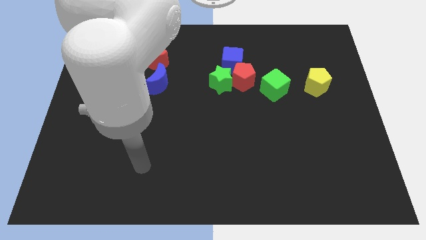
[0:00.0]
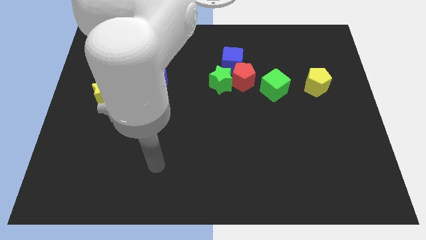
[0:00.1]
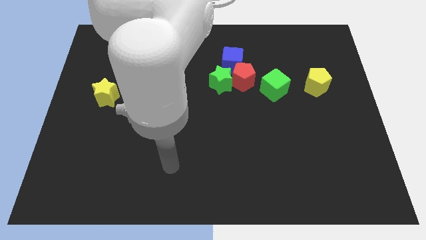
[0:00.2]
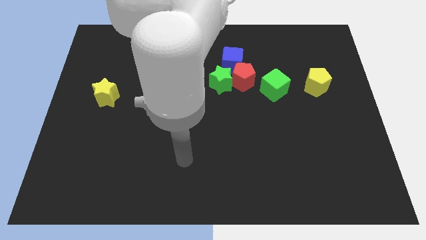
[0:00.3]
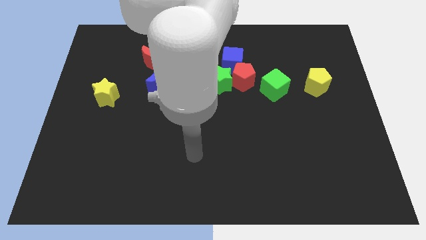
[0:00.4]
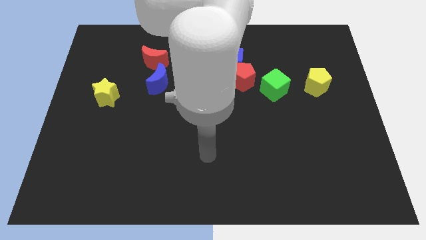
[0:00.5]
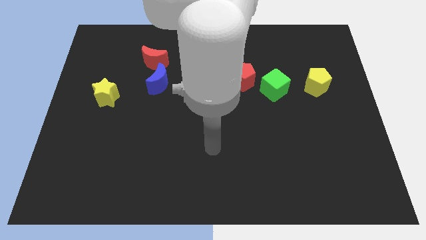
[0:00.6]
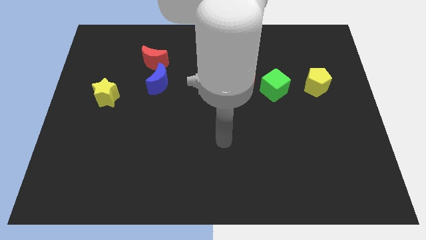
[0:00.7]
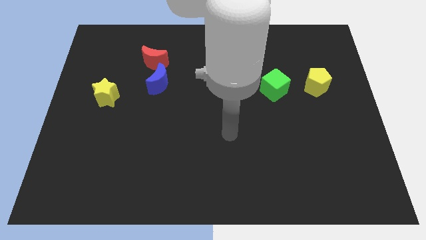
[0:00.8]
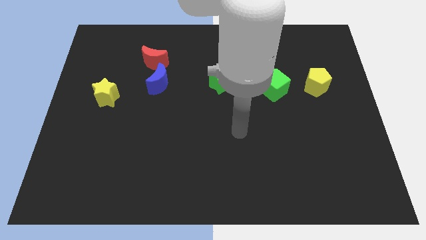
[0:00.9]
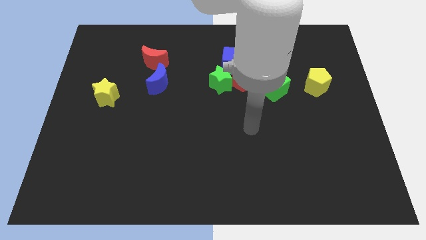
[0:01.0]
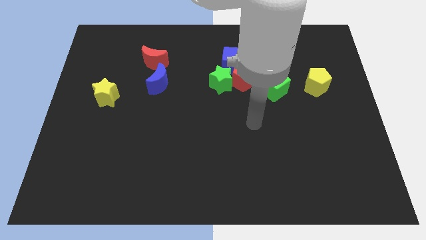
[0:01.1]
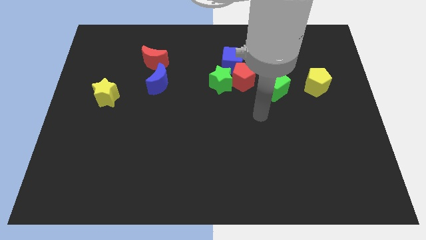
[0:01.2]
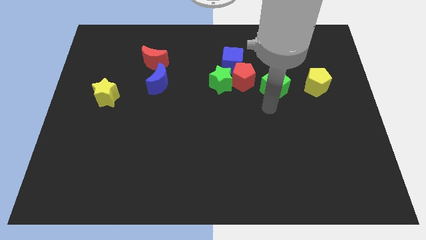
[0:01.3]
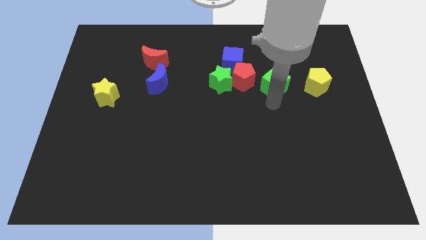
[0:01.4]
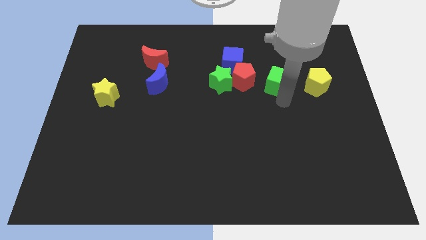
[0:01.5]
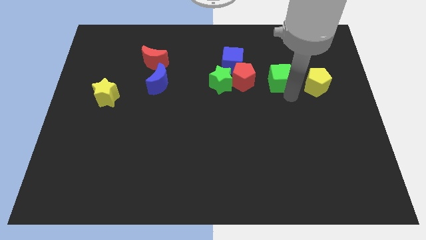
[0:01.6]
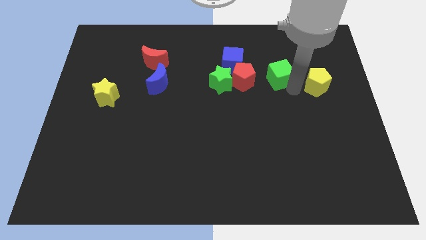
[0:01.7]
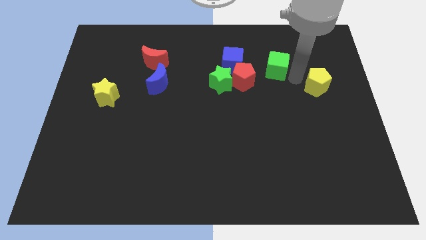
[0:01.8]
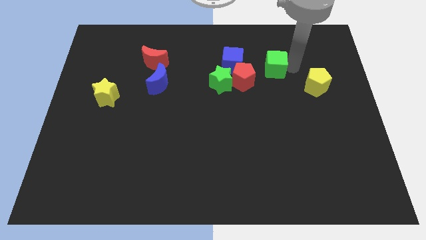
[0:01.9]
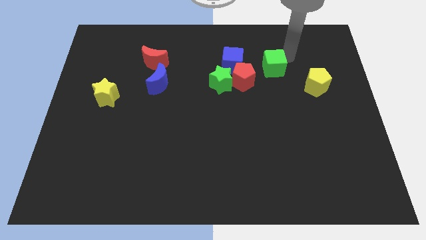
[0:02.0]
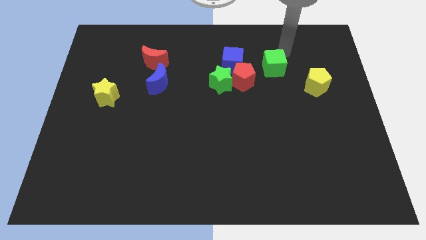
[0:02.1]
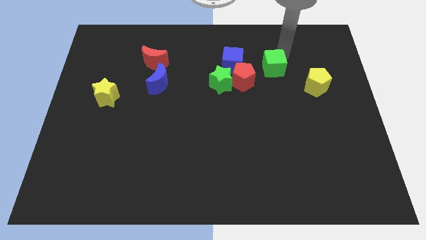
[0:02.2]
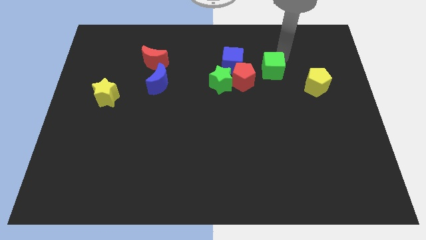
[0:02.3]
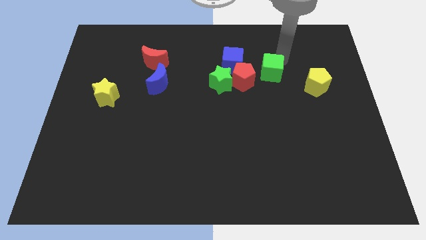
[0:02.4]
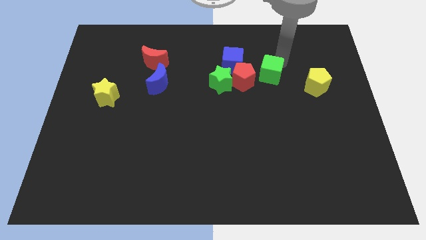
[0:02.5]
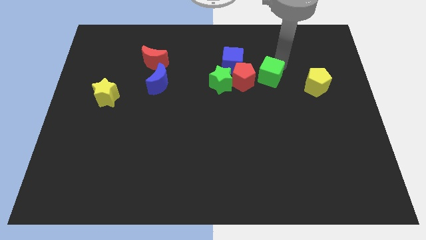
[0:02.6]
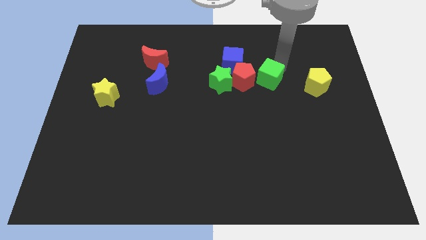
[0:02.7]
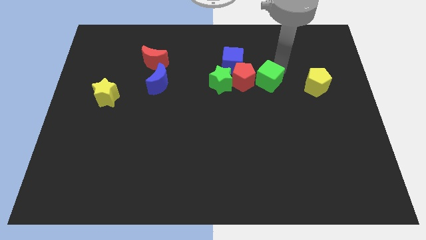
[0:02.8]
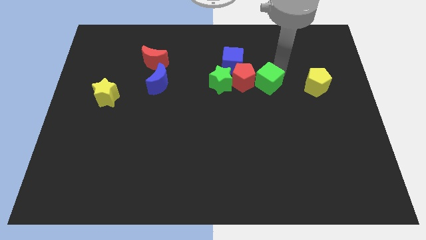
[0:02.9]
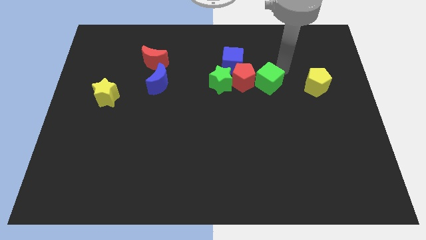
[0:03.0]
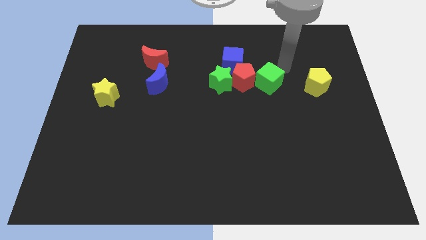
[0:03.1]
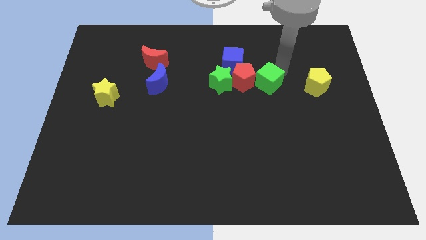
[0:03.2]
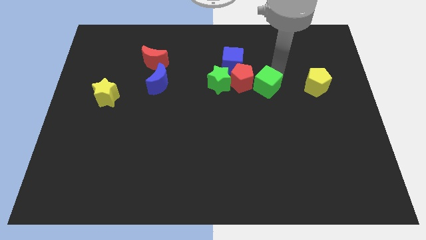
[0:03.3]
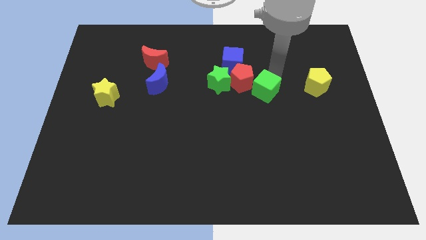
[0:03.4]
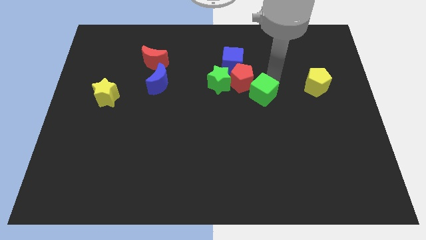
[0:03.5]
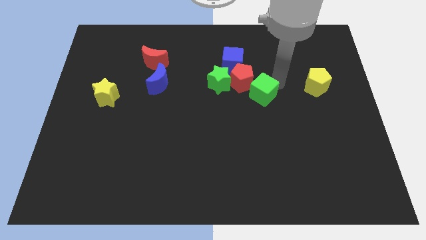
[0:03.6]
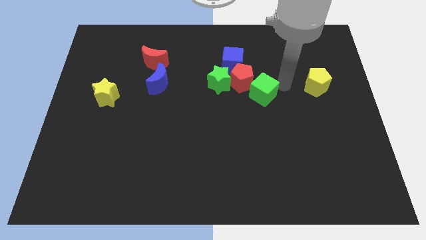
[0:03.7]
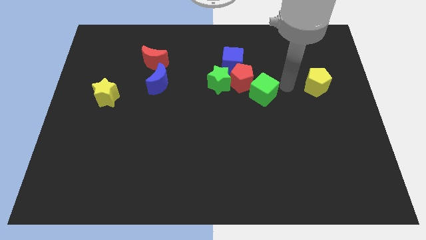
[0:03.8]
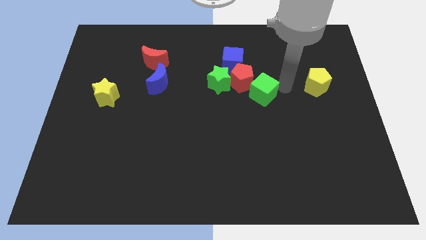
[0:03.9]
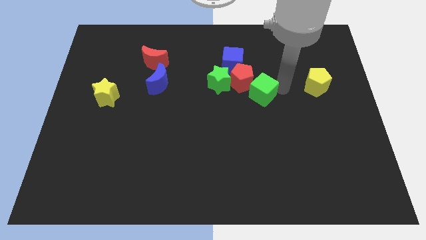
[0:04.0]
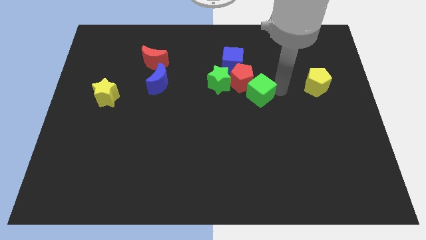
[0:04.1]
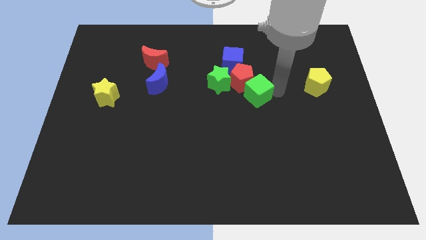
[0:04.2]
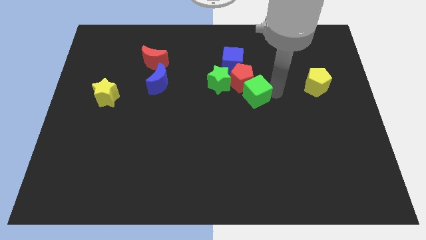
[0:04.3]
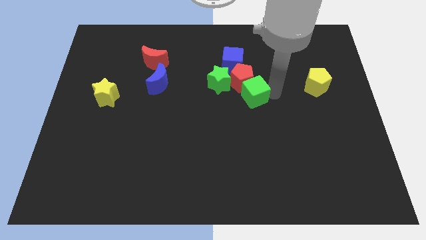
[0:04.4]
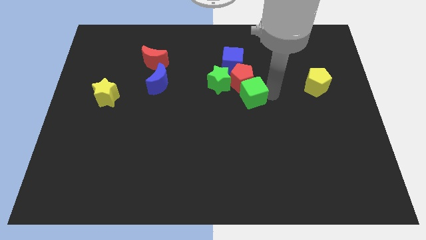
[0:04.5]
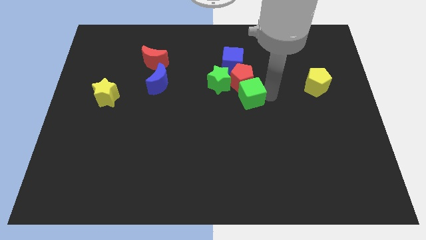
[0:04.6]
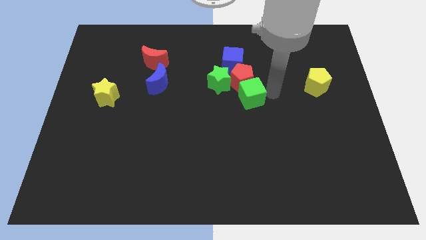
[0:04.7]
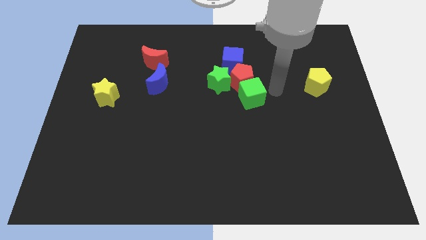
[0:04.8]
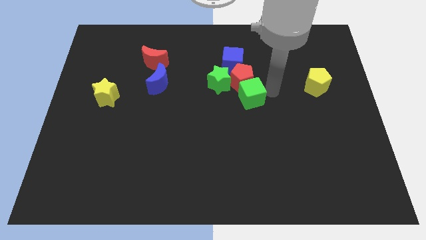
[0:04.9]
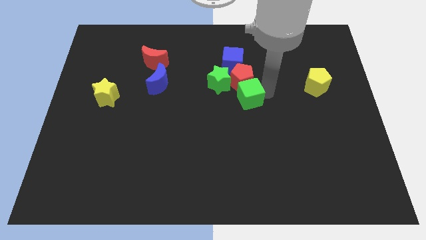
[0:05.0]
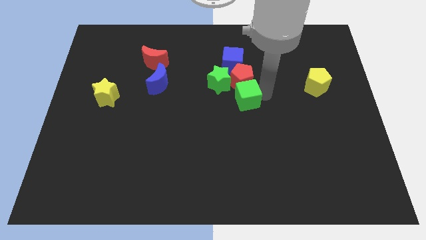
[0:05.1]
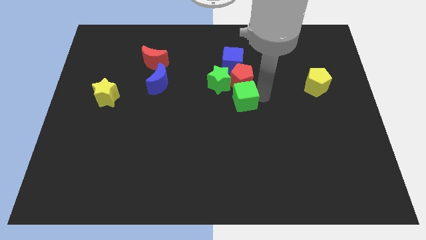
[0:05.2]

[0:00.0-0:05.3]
move the green cube to the left somewhat

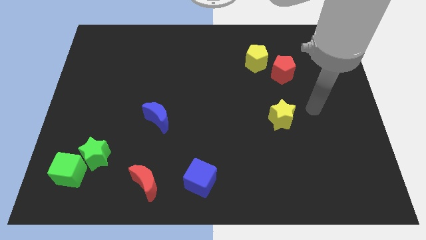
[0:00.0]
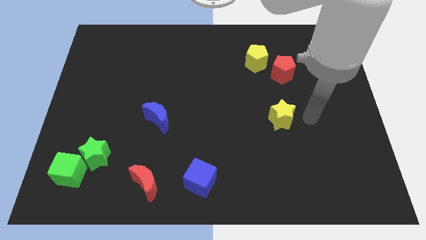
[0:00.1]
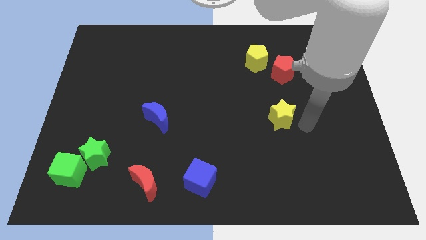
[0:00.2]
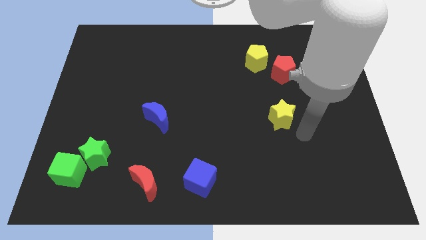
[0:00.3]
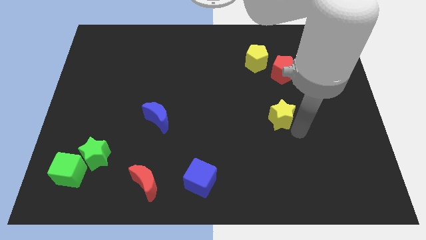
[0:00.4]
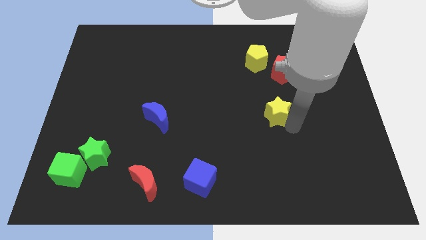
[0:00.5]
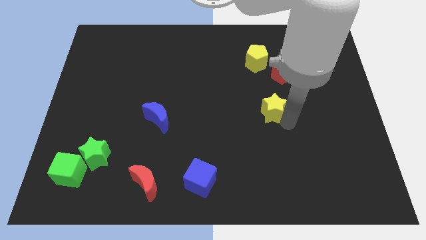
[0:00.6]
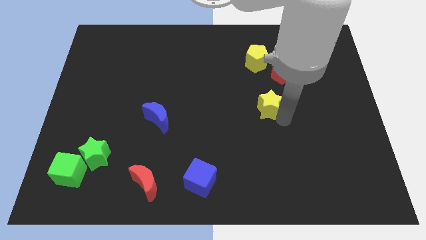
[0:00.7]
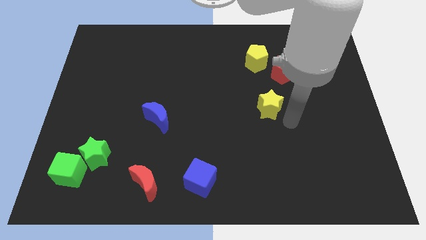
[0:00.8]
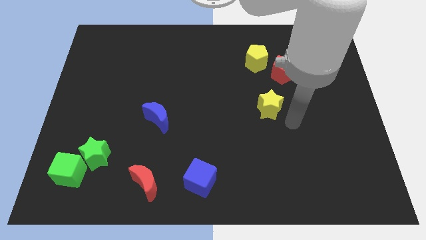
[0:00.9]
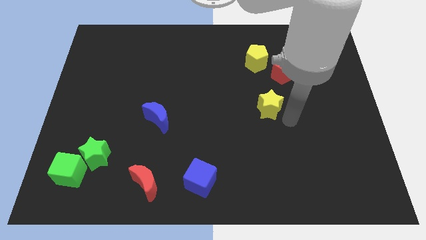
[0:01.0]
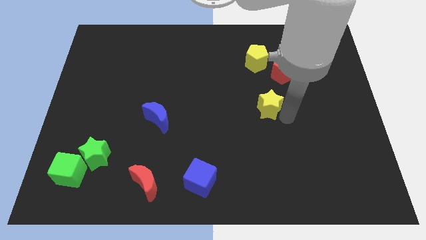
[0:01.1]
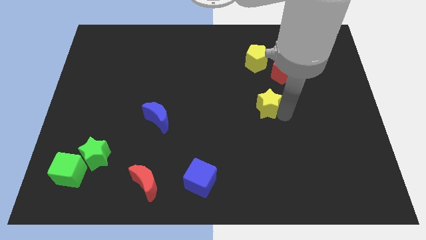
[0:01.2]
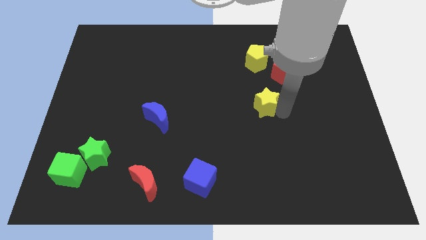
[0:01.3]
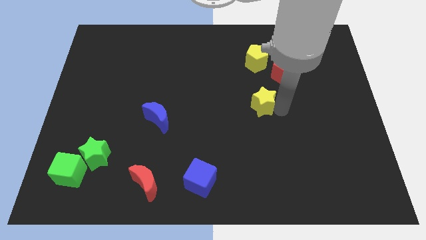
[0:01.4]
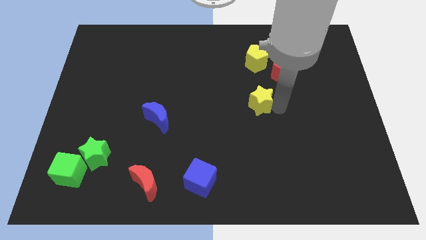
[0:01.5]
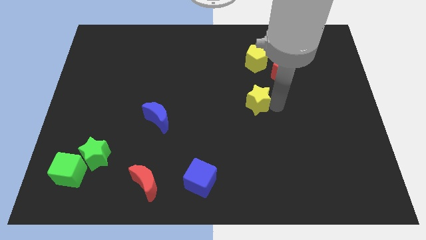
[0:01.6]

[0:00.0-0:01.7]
slightly push the yellow star up and left

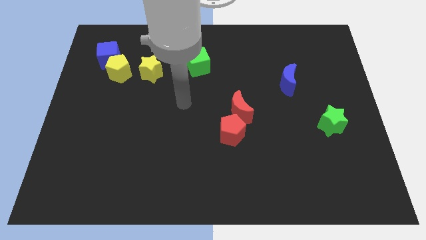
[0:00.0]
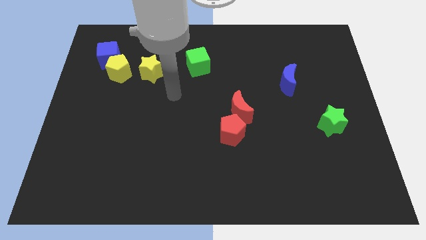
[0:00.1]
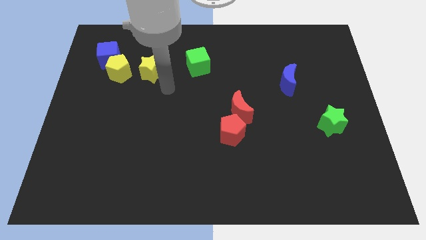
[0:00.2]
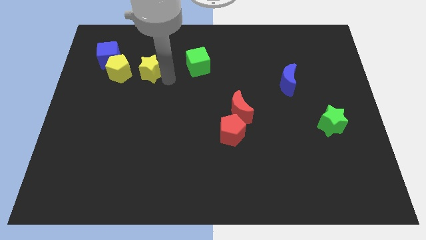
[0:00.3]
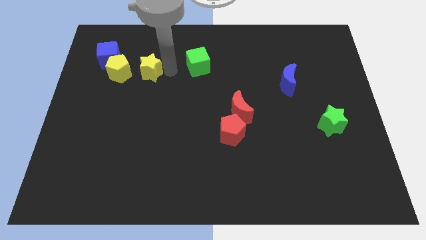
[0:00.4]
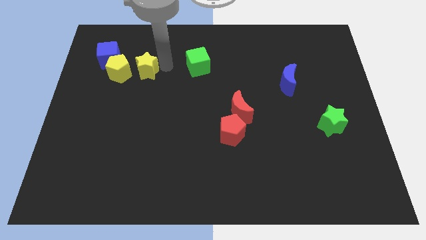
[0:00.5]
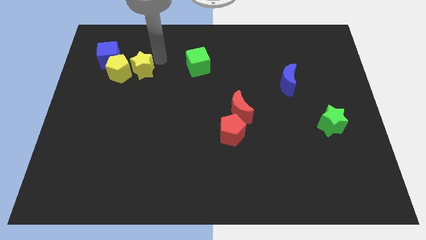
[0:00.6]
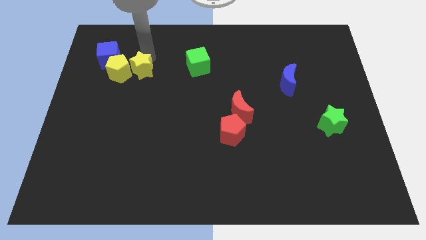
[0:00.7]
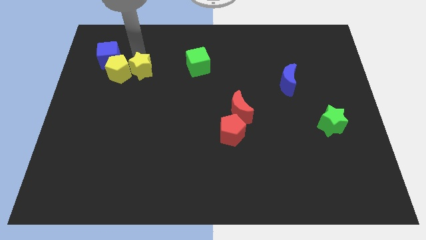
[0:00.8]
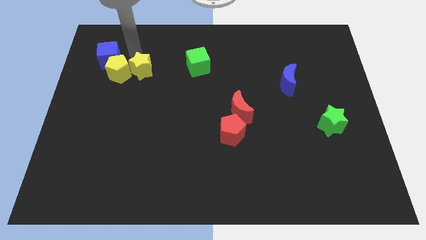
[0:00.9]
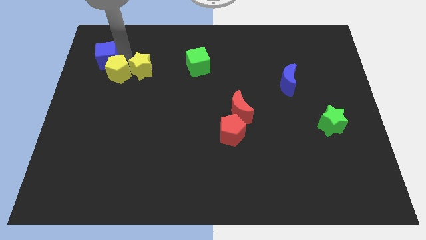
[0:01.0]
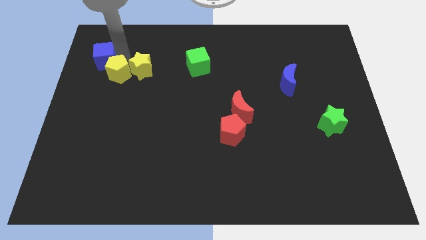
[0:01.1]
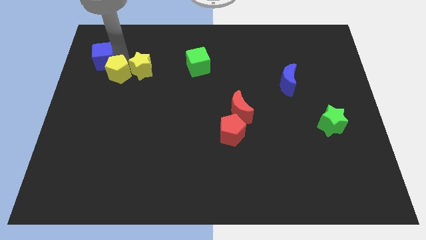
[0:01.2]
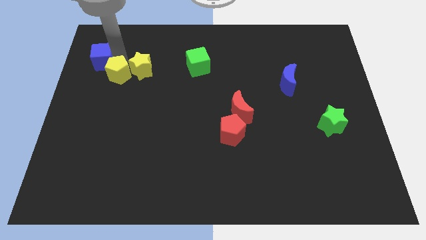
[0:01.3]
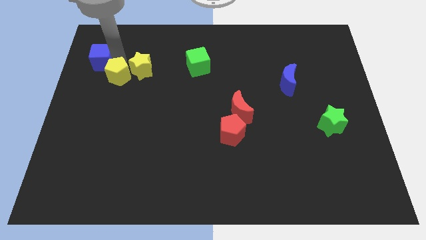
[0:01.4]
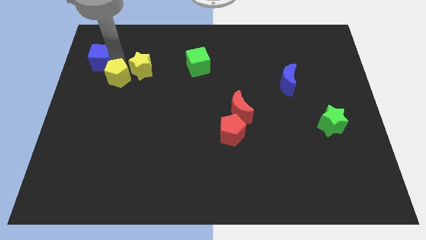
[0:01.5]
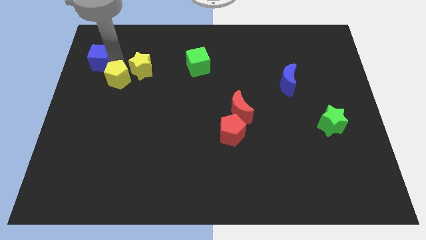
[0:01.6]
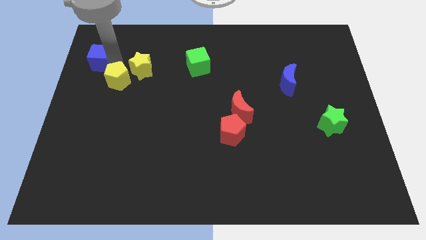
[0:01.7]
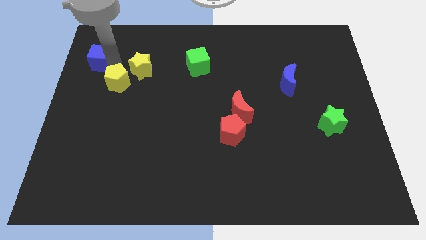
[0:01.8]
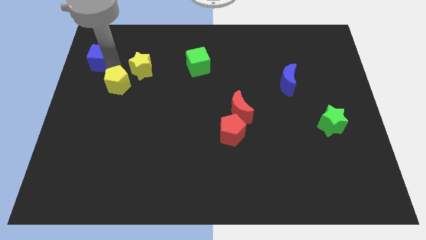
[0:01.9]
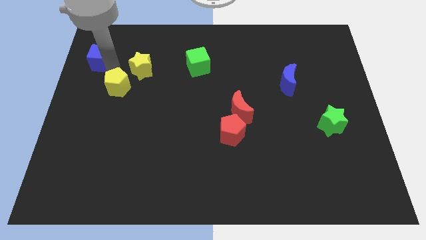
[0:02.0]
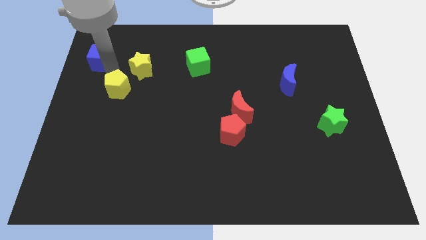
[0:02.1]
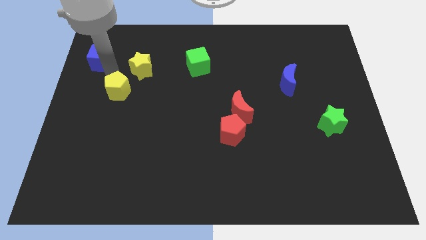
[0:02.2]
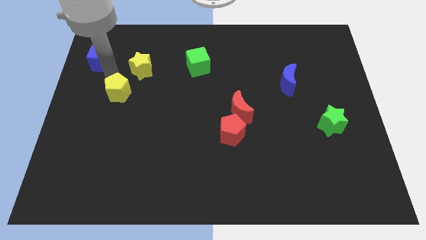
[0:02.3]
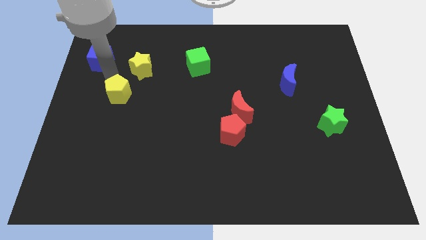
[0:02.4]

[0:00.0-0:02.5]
move the yellow pentagon downwards somewhat
